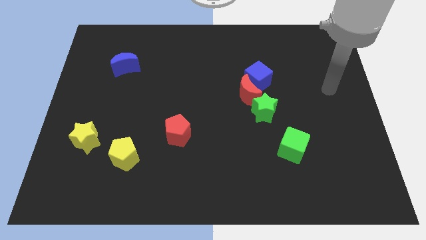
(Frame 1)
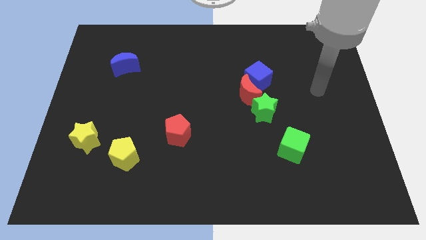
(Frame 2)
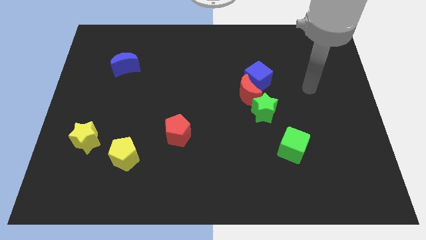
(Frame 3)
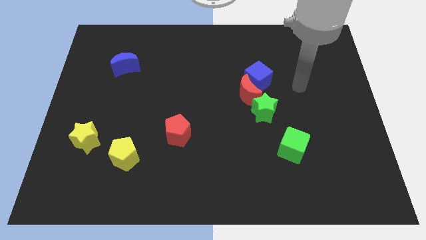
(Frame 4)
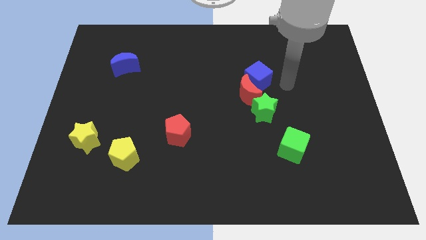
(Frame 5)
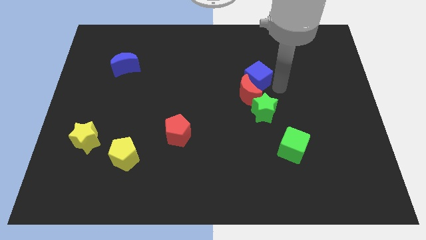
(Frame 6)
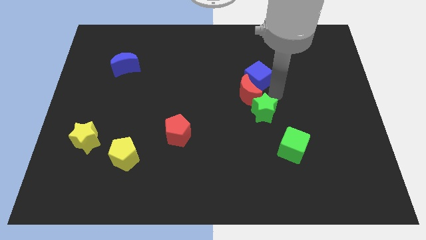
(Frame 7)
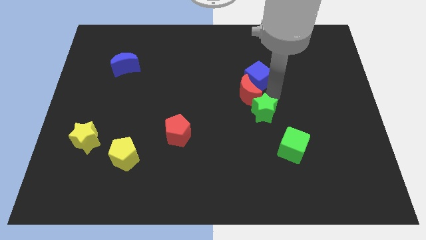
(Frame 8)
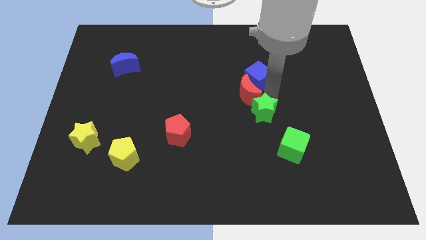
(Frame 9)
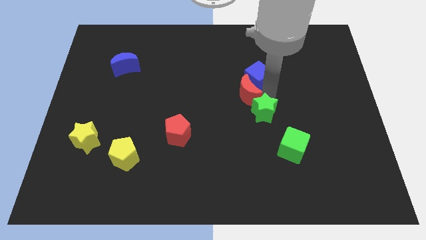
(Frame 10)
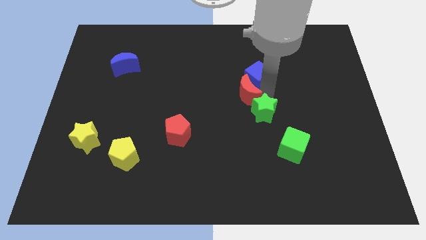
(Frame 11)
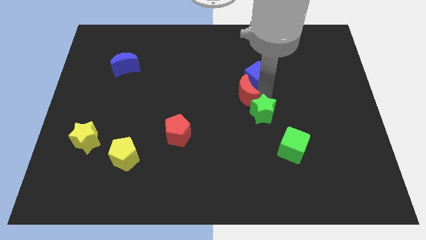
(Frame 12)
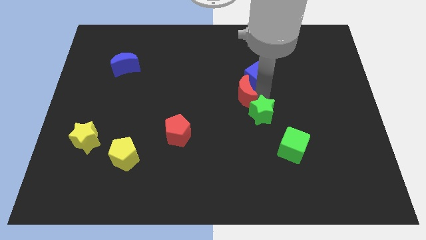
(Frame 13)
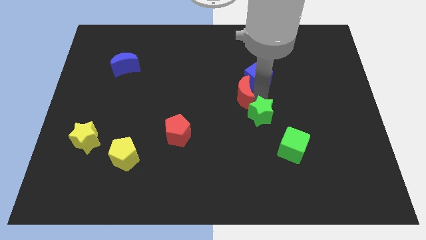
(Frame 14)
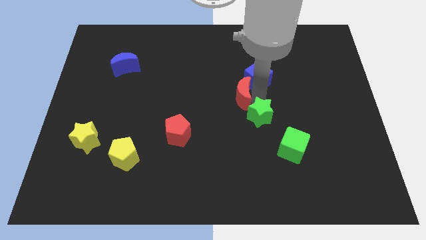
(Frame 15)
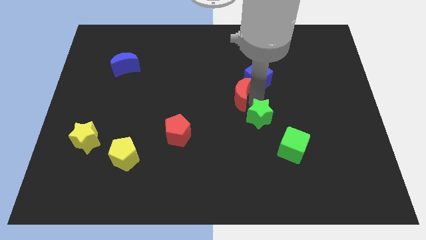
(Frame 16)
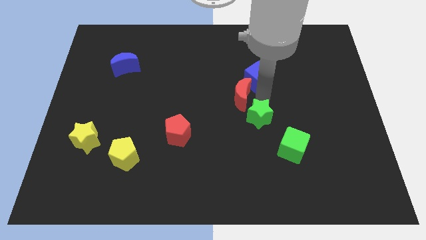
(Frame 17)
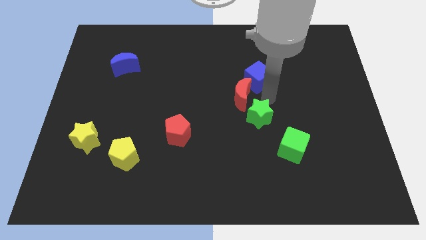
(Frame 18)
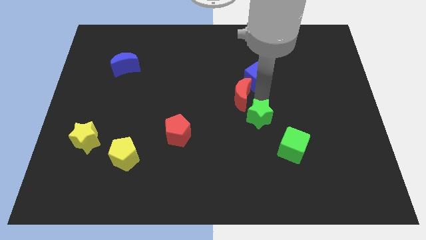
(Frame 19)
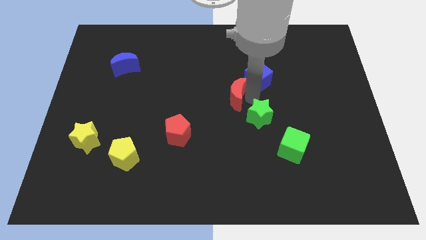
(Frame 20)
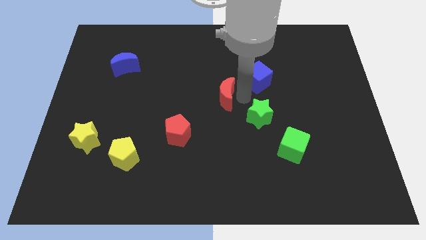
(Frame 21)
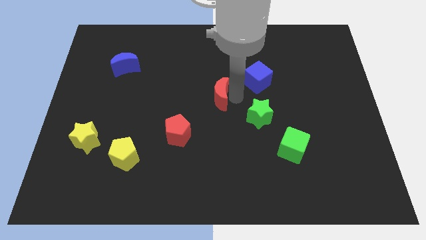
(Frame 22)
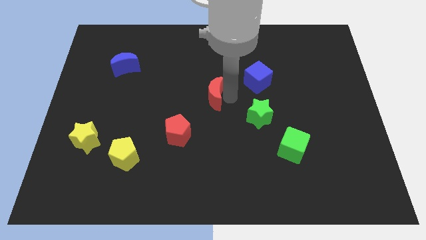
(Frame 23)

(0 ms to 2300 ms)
separate the red moon from the blue cube and green star

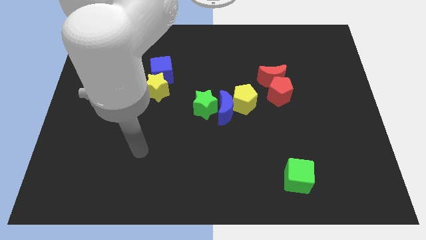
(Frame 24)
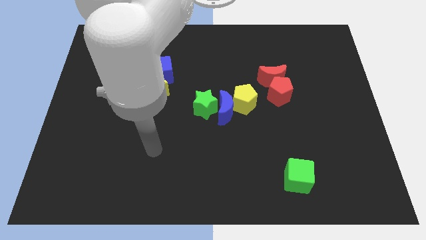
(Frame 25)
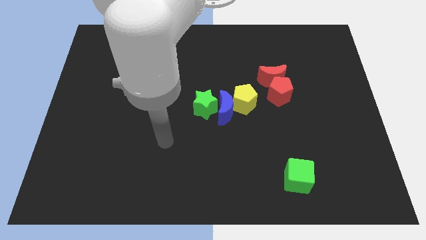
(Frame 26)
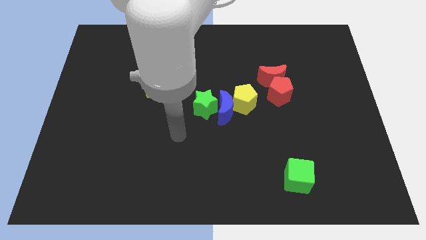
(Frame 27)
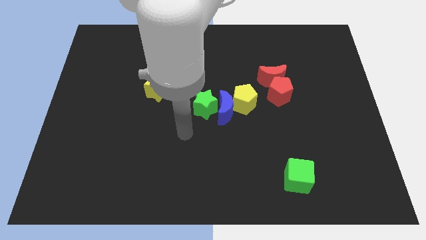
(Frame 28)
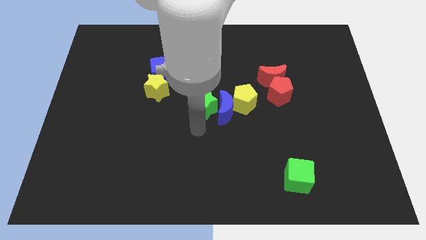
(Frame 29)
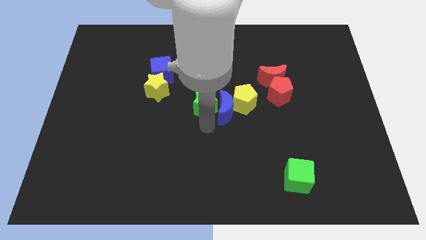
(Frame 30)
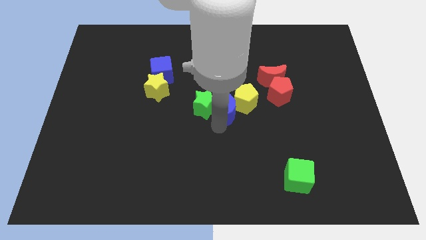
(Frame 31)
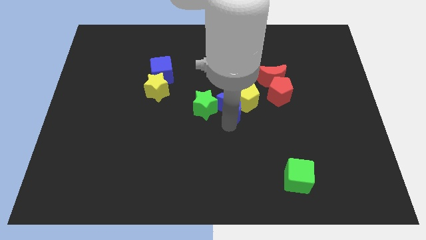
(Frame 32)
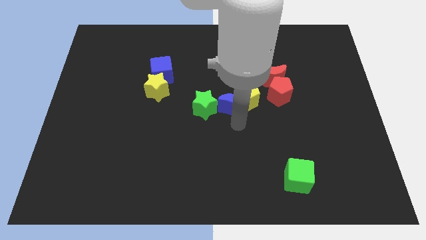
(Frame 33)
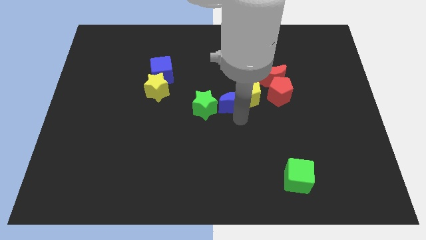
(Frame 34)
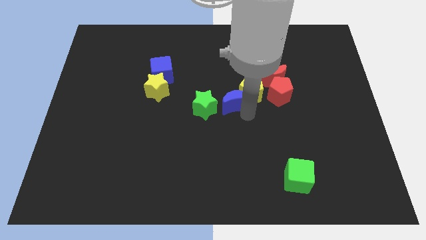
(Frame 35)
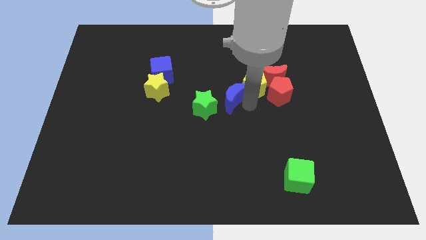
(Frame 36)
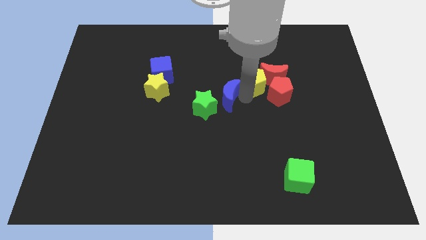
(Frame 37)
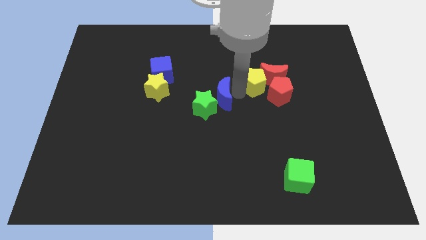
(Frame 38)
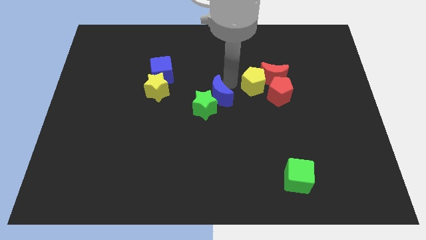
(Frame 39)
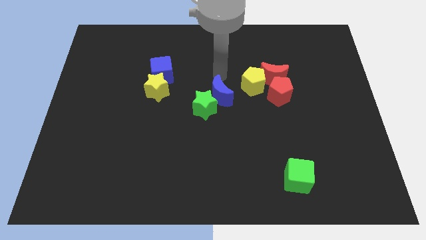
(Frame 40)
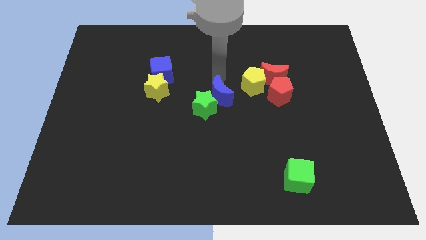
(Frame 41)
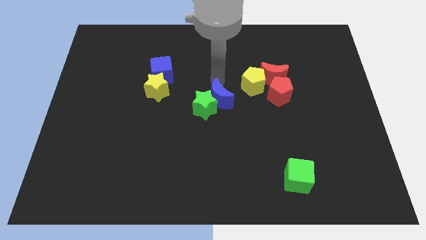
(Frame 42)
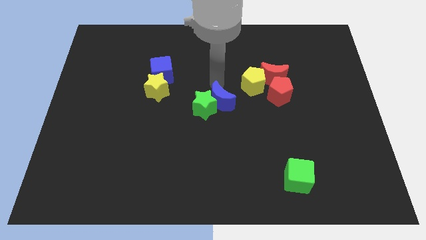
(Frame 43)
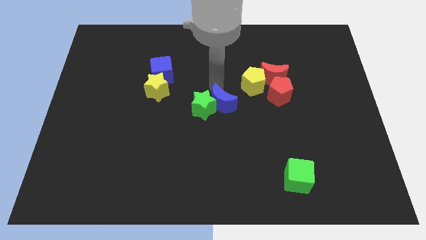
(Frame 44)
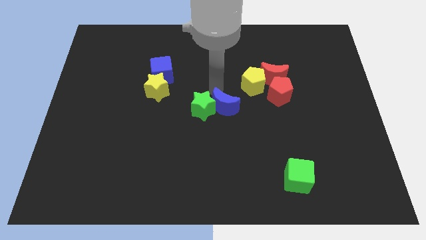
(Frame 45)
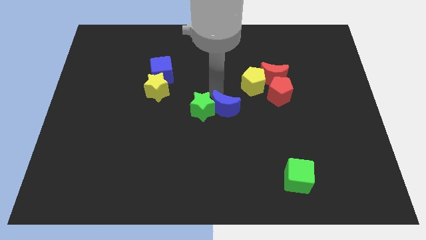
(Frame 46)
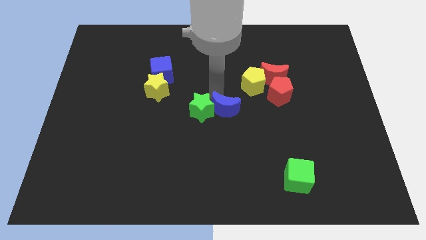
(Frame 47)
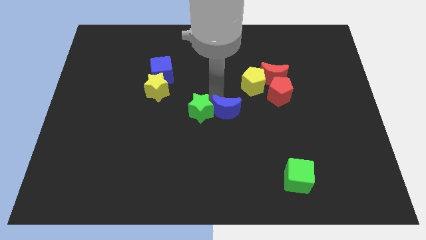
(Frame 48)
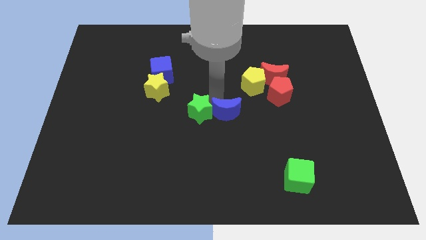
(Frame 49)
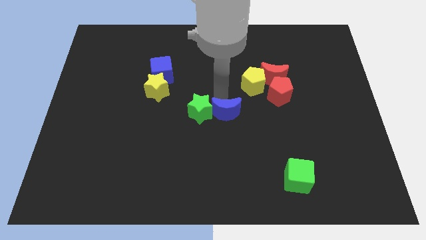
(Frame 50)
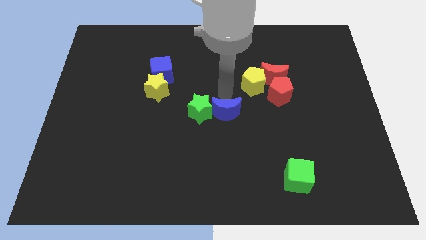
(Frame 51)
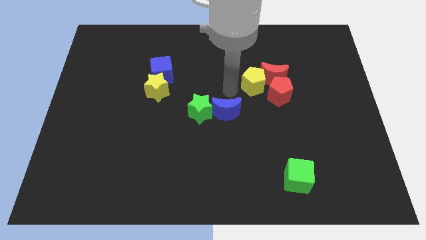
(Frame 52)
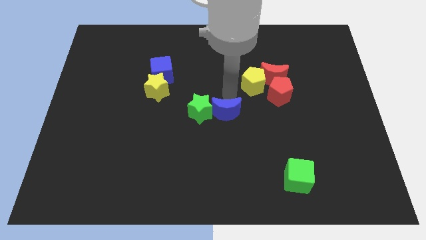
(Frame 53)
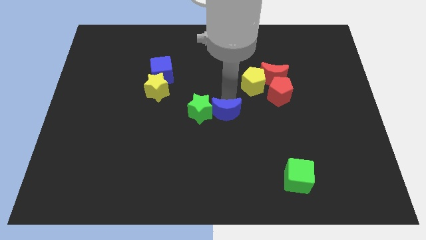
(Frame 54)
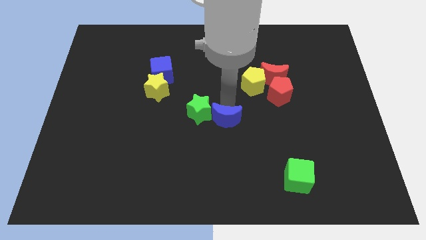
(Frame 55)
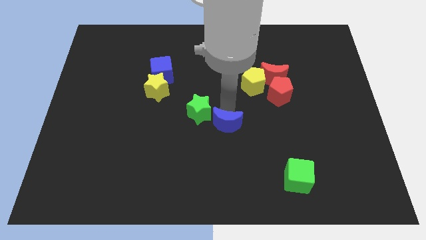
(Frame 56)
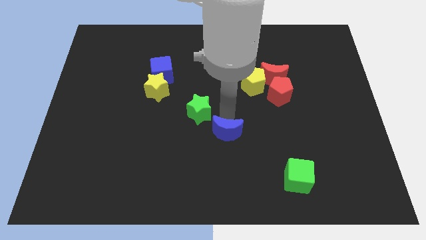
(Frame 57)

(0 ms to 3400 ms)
pull the blue moon apart from the green star and yellow pentagon

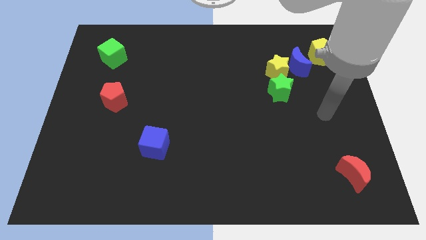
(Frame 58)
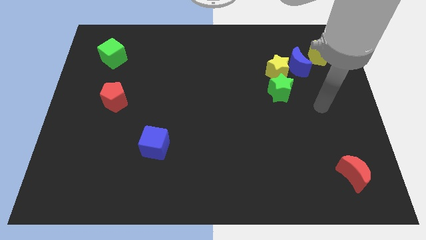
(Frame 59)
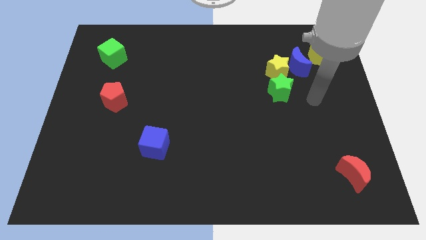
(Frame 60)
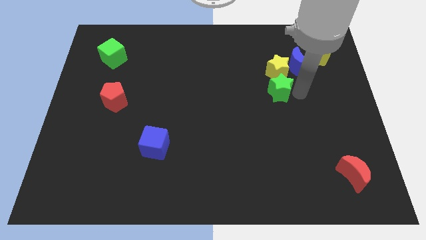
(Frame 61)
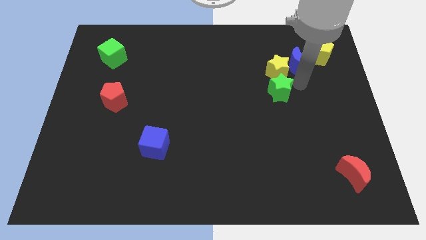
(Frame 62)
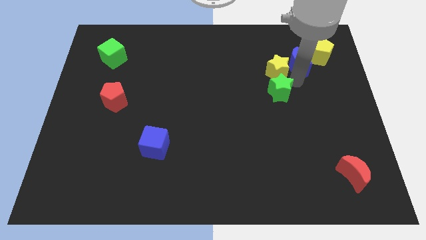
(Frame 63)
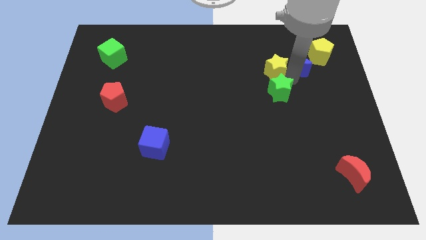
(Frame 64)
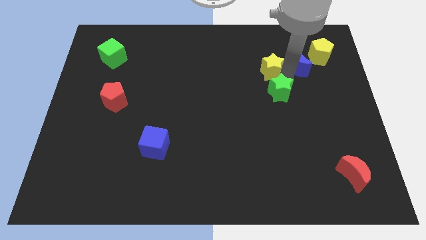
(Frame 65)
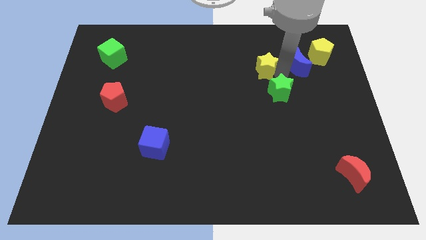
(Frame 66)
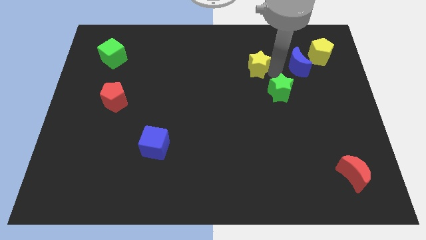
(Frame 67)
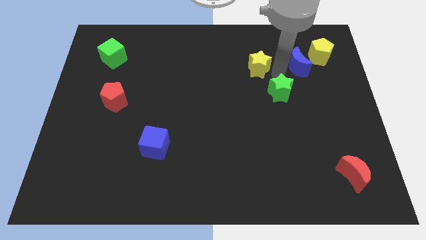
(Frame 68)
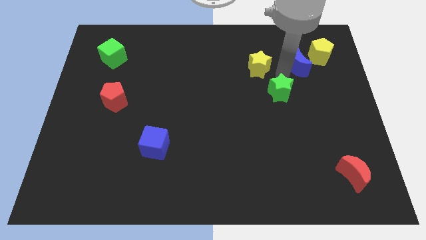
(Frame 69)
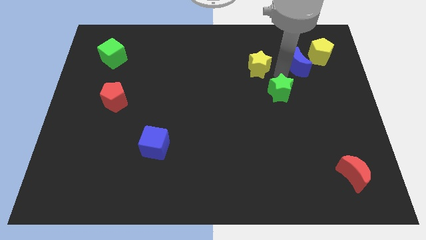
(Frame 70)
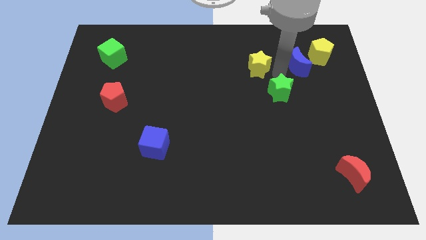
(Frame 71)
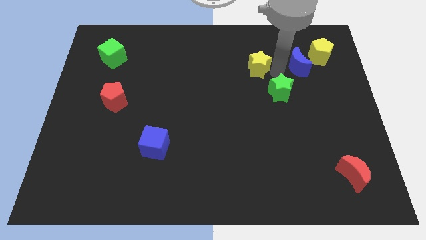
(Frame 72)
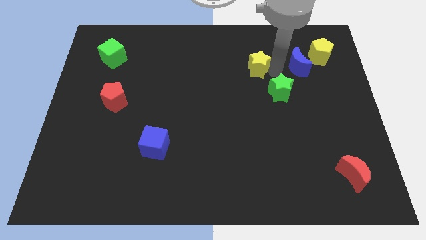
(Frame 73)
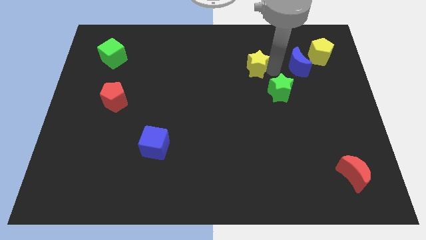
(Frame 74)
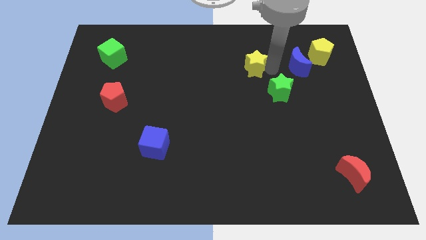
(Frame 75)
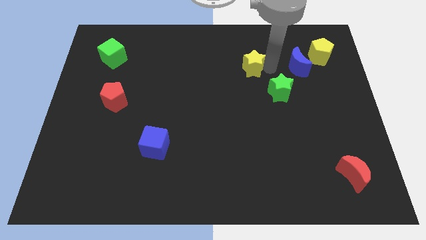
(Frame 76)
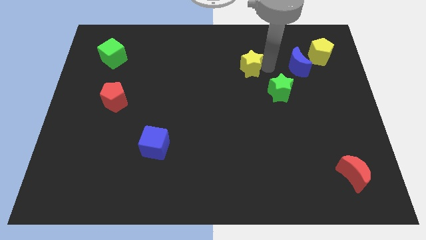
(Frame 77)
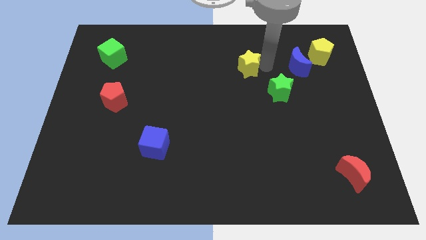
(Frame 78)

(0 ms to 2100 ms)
separate the yellow star from the blue moon and green star

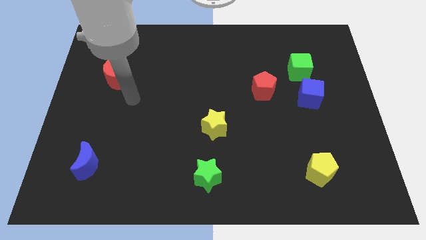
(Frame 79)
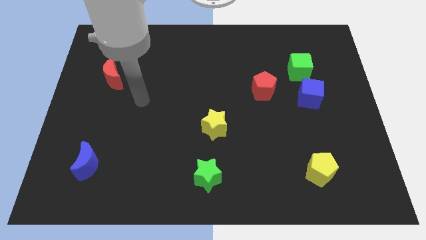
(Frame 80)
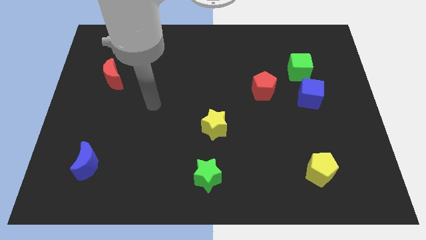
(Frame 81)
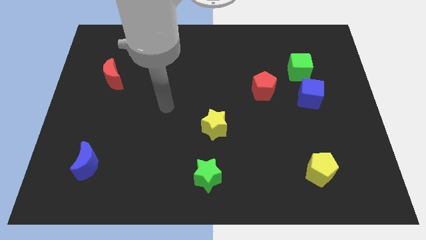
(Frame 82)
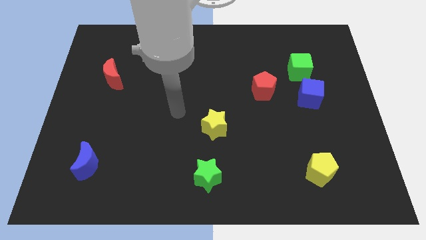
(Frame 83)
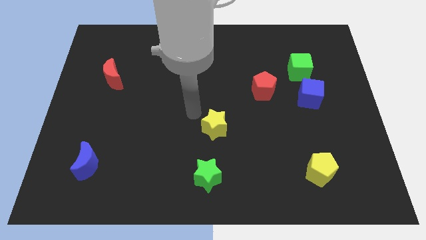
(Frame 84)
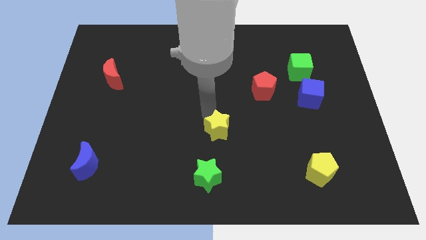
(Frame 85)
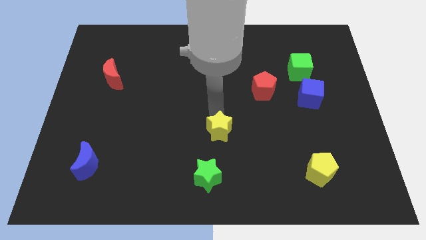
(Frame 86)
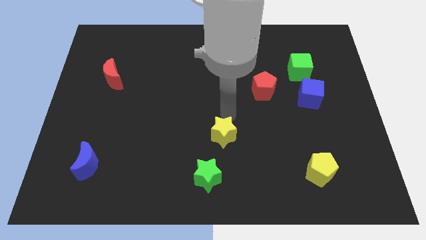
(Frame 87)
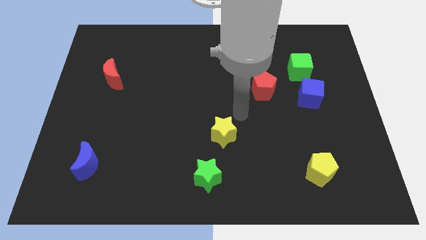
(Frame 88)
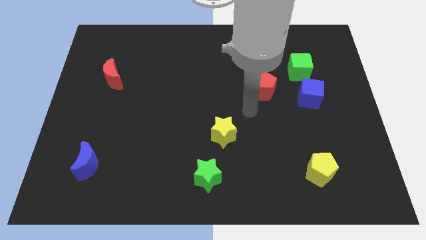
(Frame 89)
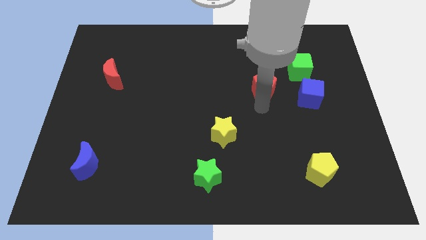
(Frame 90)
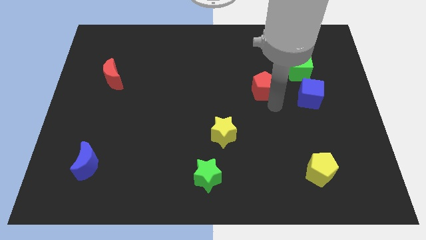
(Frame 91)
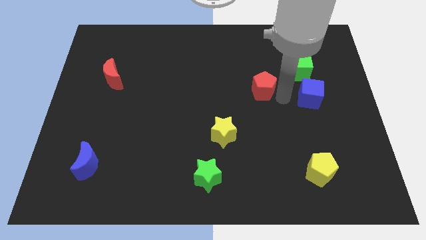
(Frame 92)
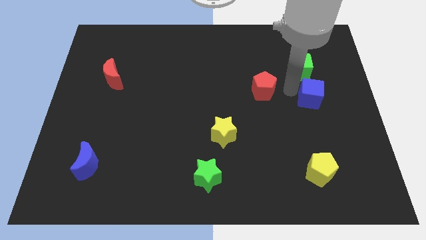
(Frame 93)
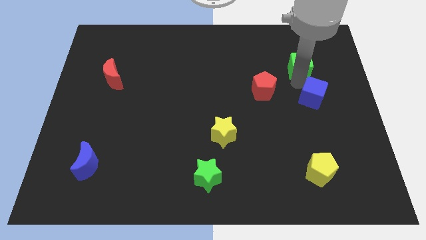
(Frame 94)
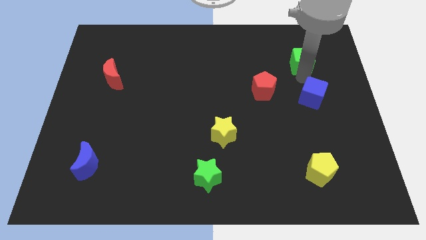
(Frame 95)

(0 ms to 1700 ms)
move the blue cube away from the green cube
